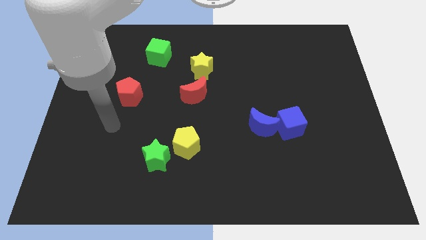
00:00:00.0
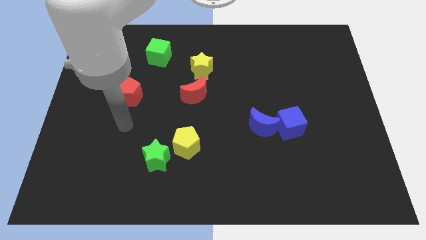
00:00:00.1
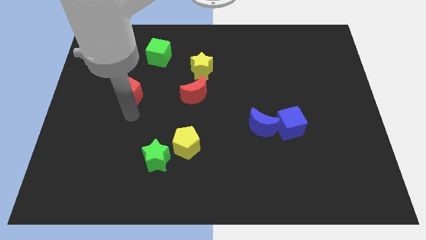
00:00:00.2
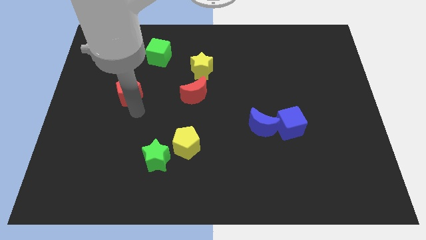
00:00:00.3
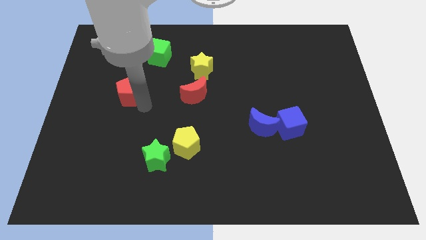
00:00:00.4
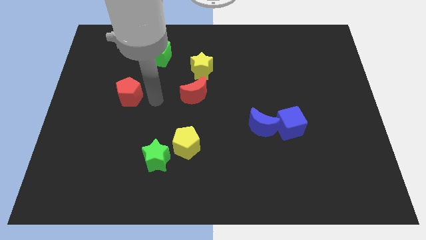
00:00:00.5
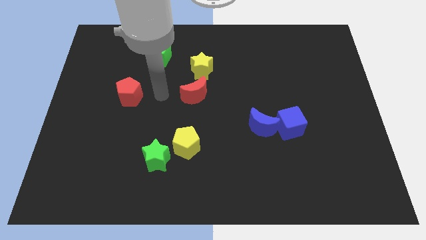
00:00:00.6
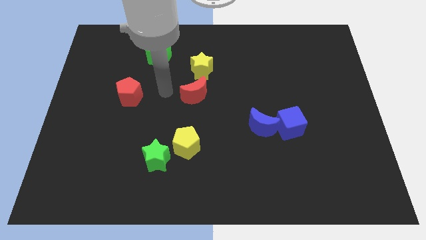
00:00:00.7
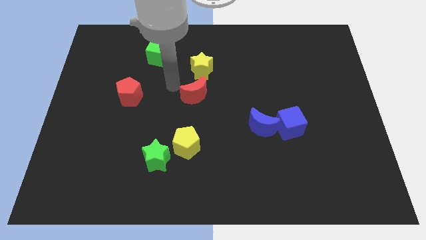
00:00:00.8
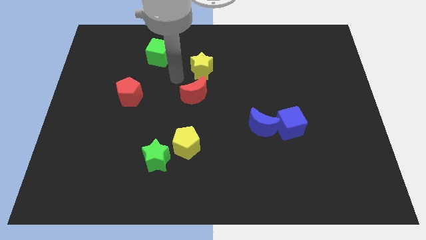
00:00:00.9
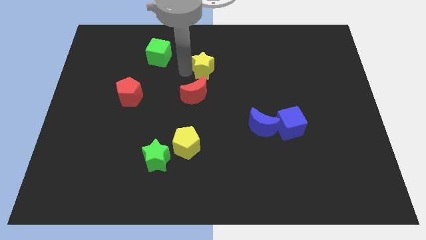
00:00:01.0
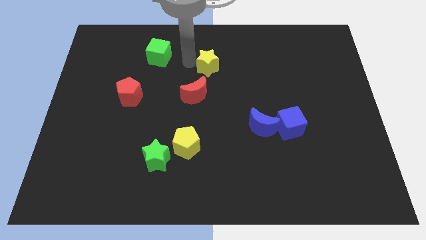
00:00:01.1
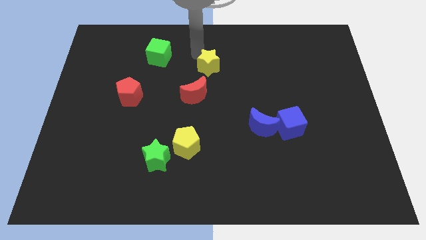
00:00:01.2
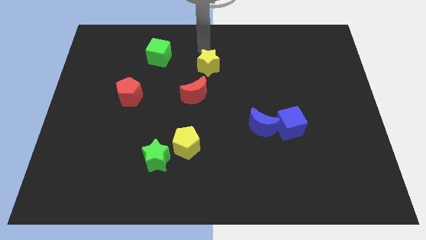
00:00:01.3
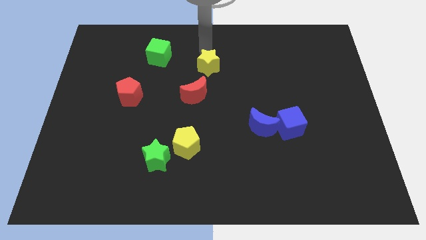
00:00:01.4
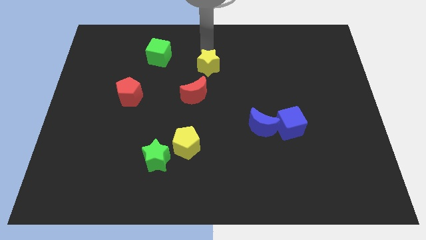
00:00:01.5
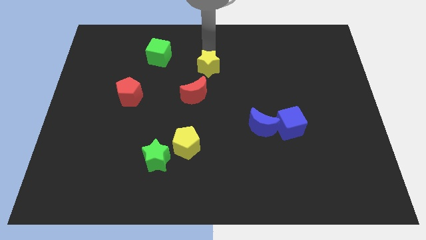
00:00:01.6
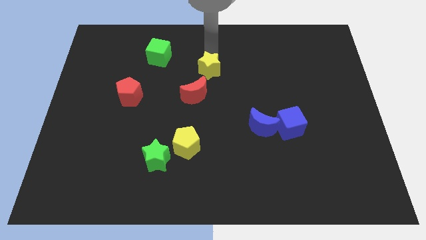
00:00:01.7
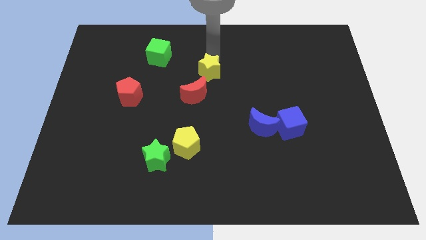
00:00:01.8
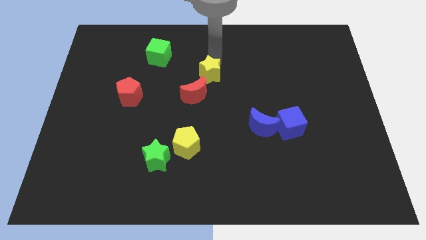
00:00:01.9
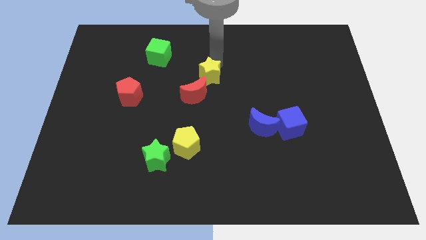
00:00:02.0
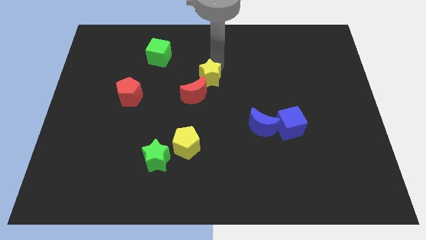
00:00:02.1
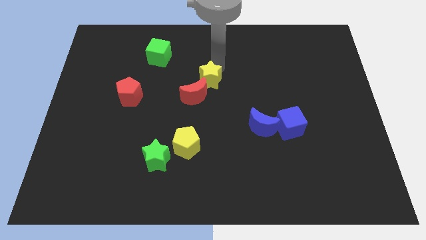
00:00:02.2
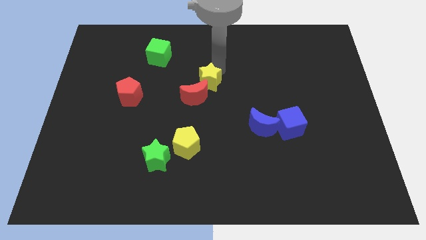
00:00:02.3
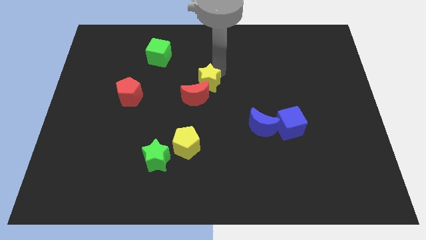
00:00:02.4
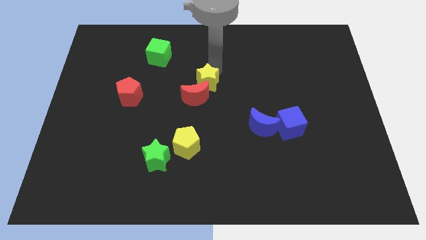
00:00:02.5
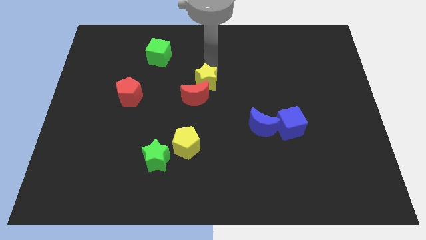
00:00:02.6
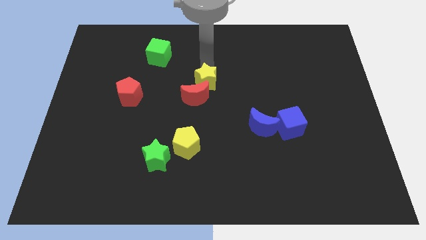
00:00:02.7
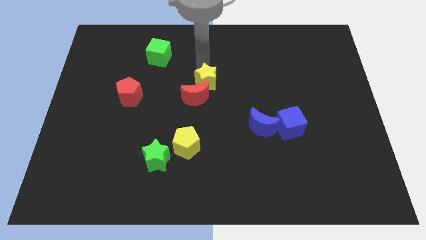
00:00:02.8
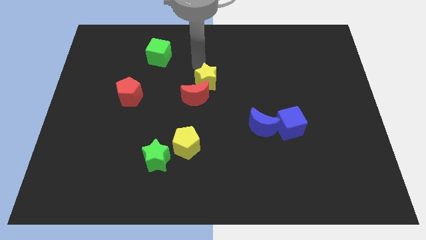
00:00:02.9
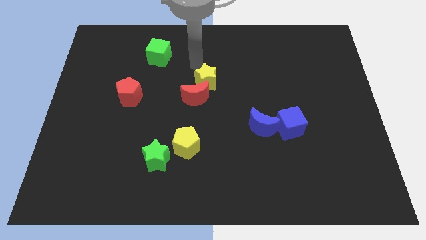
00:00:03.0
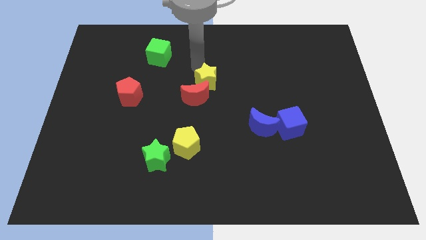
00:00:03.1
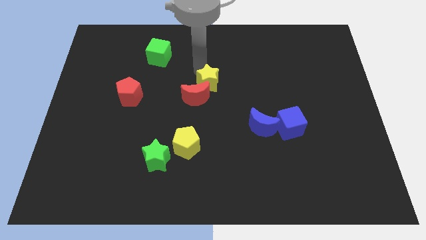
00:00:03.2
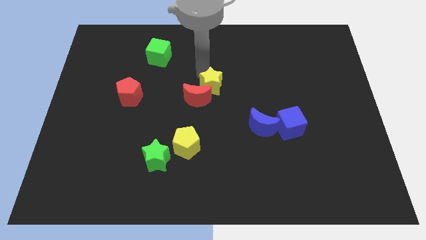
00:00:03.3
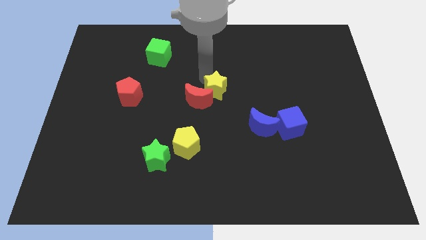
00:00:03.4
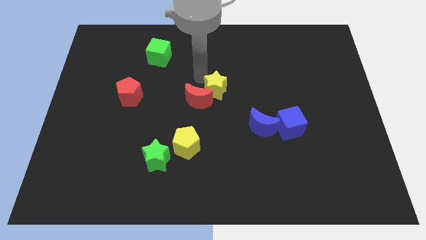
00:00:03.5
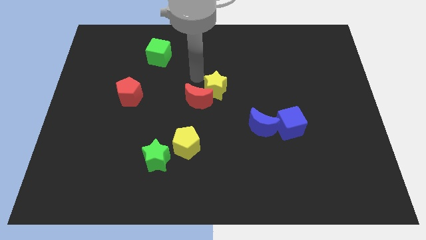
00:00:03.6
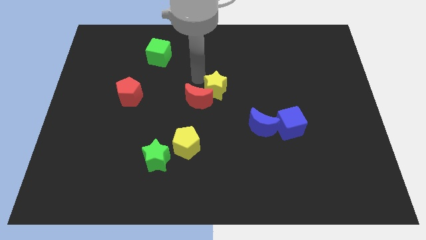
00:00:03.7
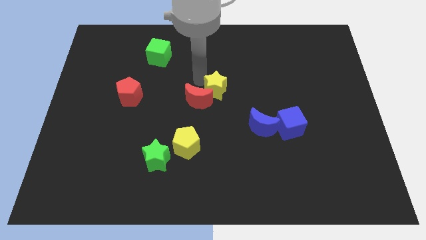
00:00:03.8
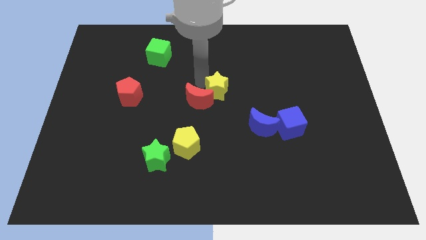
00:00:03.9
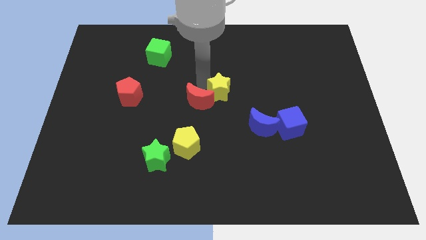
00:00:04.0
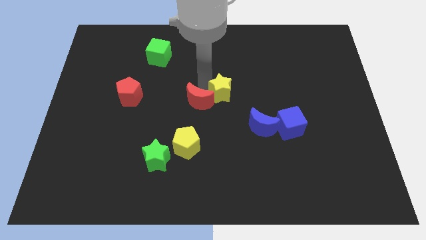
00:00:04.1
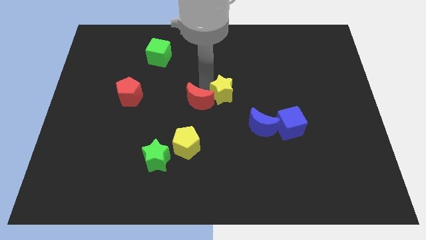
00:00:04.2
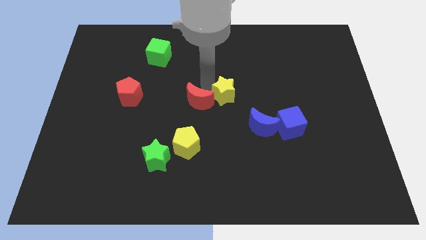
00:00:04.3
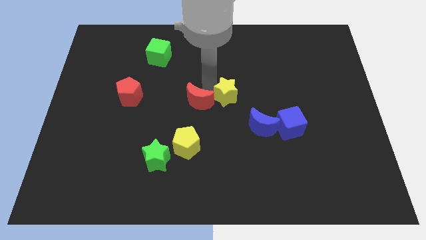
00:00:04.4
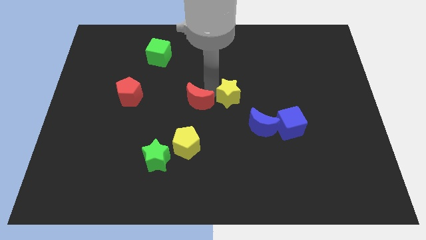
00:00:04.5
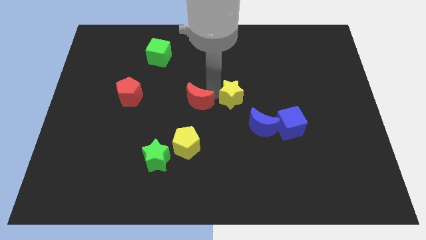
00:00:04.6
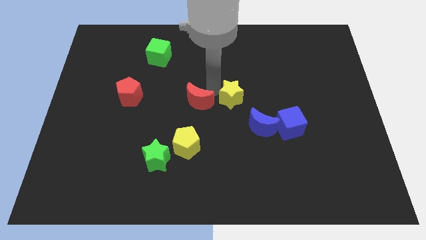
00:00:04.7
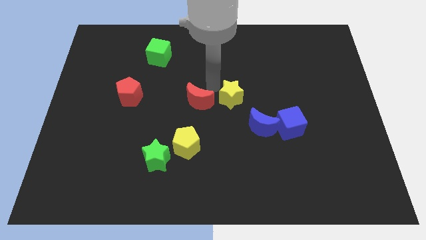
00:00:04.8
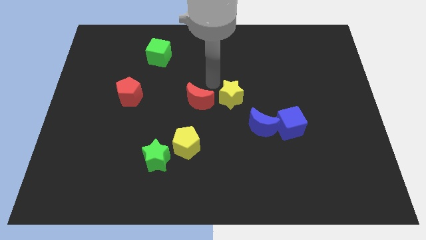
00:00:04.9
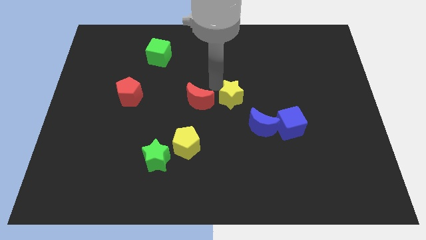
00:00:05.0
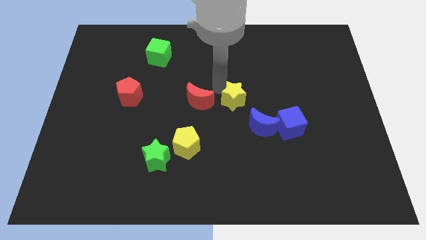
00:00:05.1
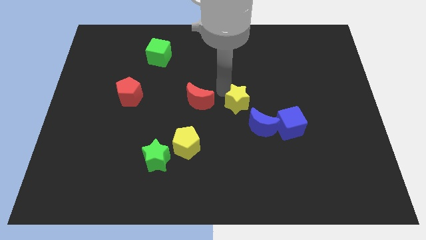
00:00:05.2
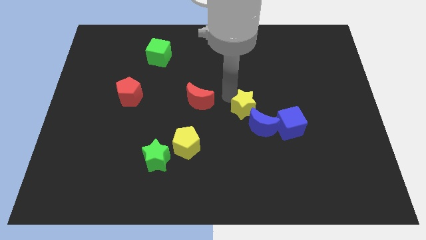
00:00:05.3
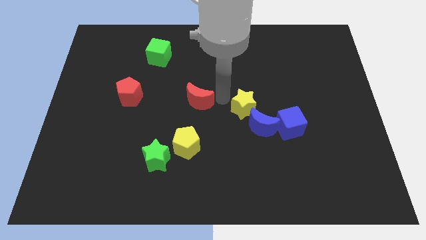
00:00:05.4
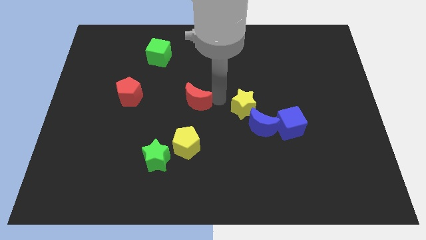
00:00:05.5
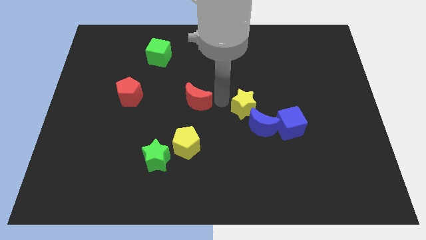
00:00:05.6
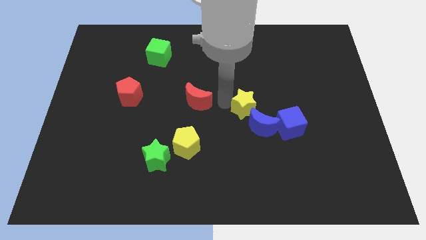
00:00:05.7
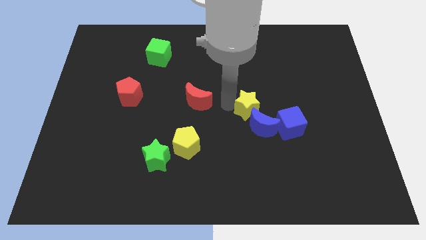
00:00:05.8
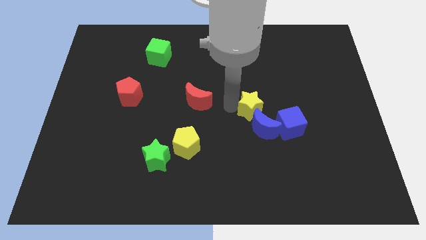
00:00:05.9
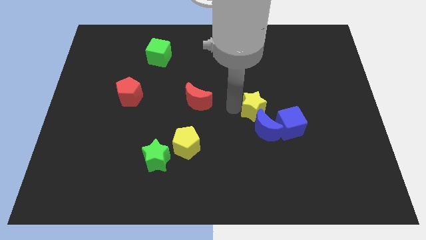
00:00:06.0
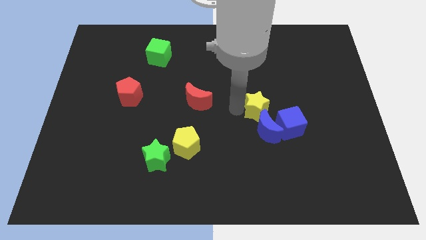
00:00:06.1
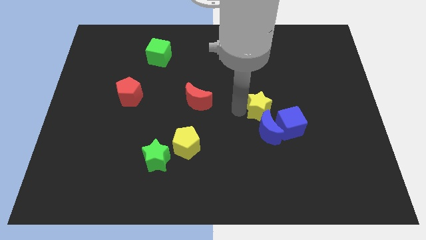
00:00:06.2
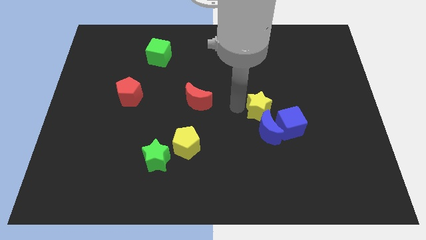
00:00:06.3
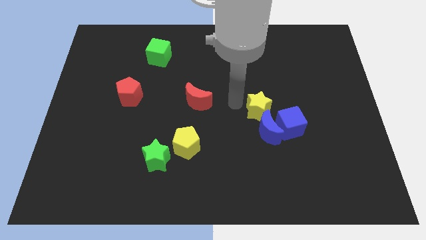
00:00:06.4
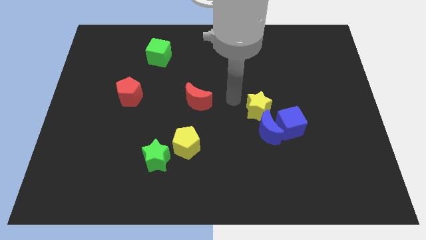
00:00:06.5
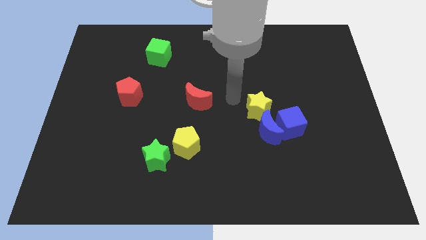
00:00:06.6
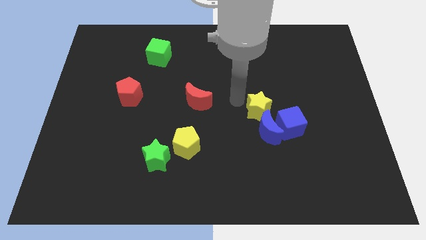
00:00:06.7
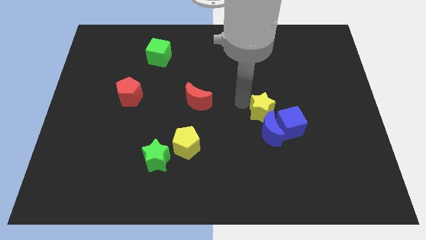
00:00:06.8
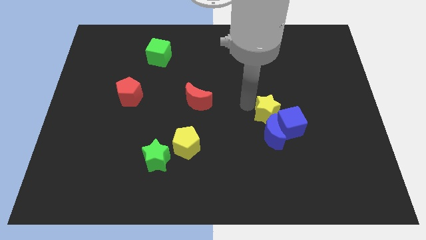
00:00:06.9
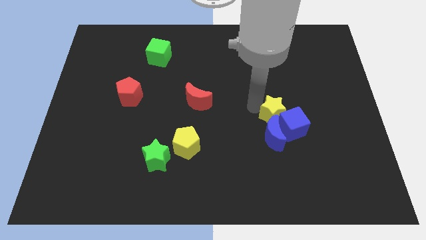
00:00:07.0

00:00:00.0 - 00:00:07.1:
push the yellow star to the blue cube

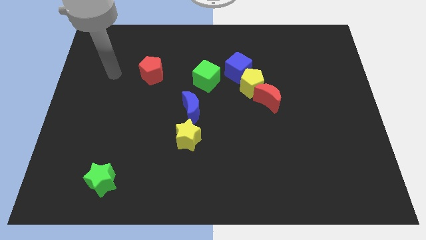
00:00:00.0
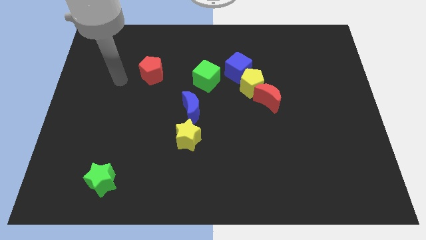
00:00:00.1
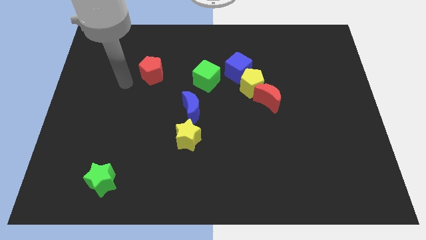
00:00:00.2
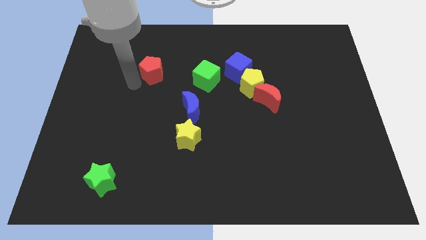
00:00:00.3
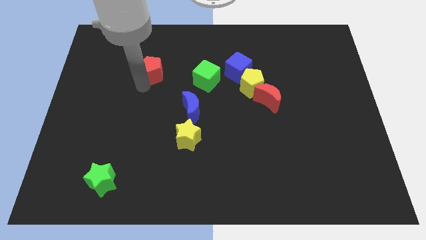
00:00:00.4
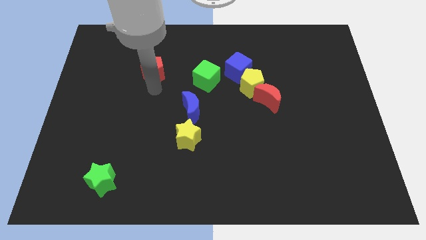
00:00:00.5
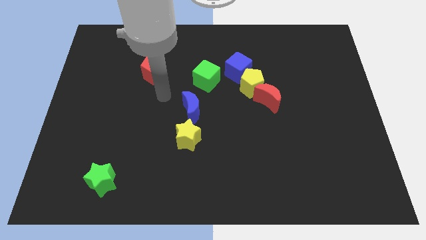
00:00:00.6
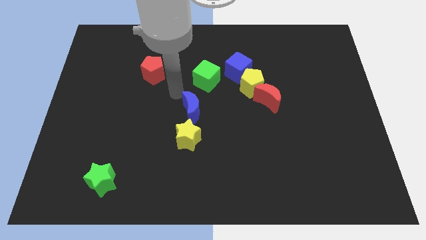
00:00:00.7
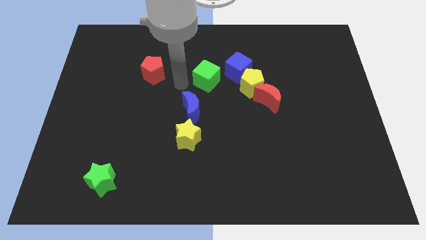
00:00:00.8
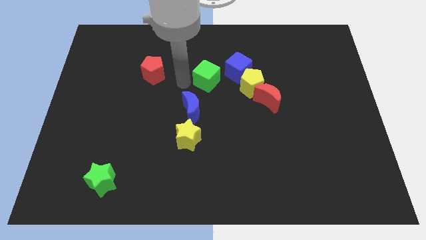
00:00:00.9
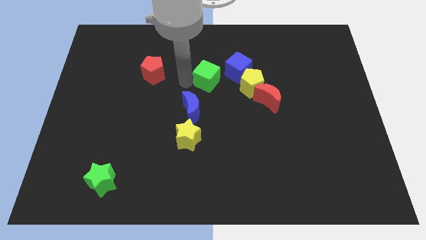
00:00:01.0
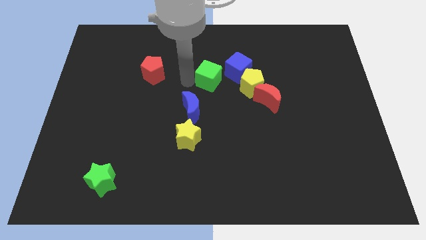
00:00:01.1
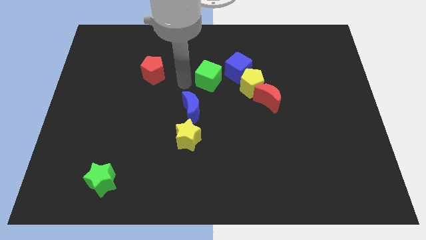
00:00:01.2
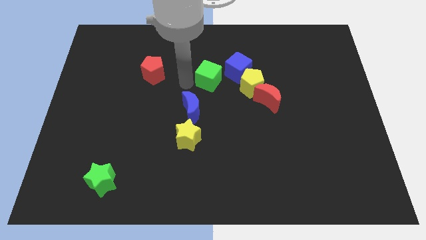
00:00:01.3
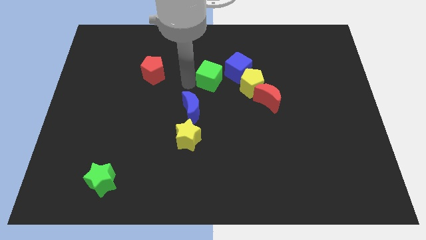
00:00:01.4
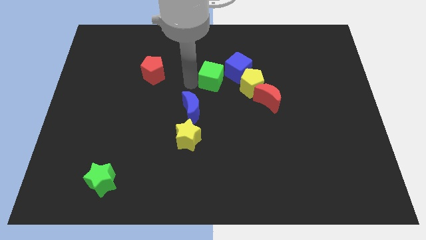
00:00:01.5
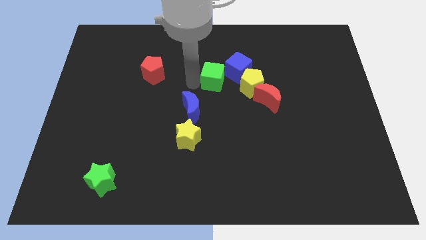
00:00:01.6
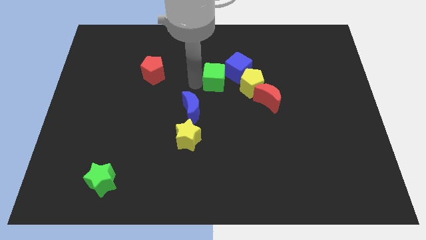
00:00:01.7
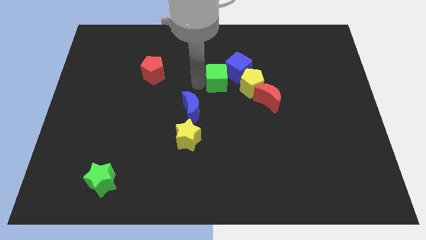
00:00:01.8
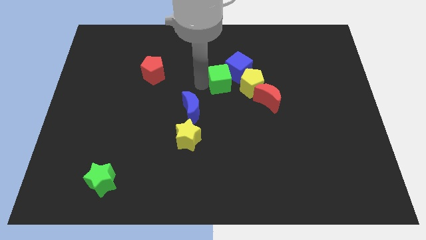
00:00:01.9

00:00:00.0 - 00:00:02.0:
put the green cube close to the blue cube
